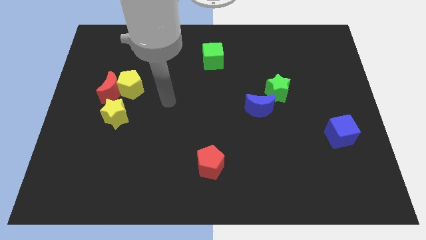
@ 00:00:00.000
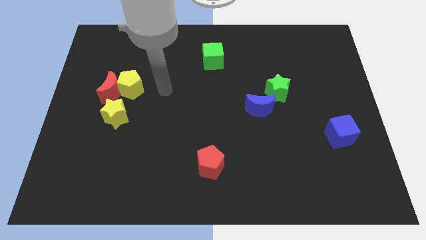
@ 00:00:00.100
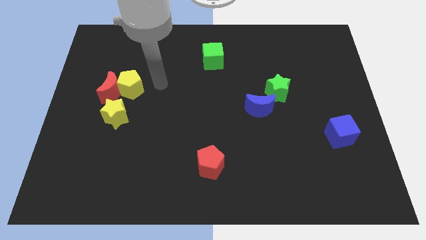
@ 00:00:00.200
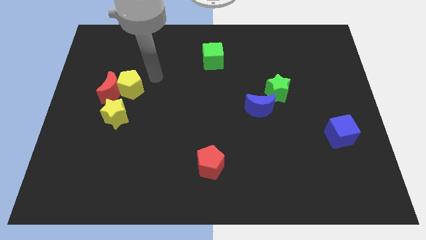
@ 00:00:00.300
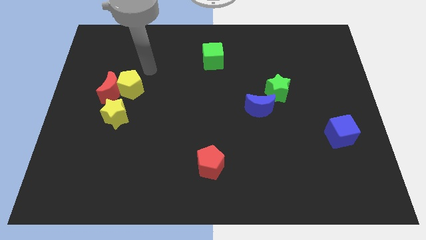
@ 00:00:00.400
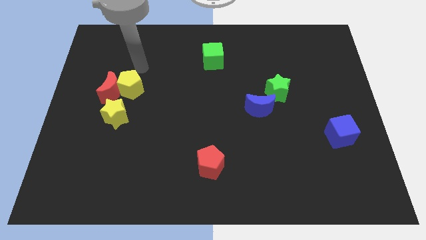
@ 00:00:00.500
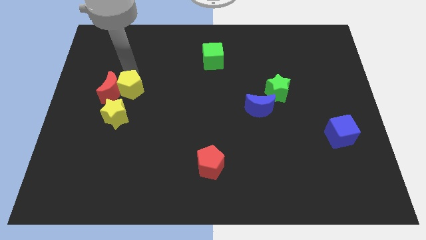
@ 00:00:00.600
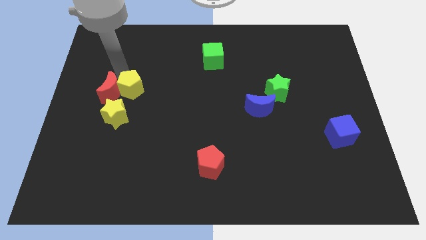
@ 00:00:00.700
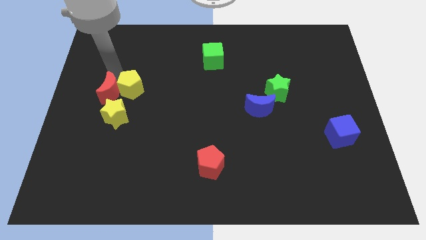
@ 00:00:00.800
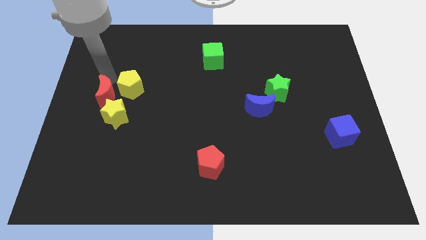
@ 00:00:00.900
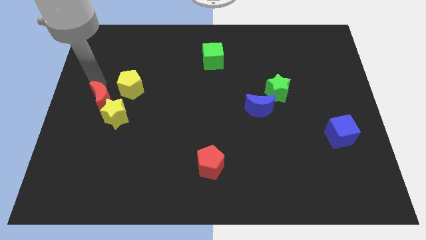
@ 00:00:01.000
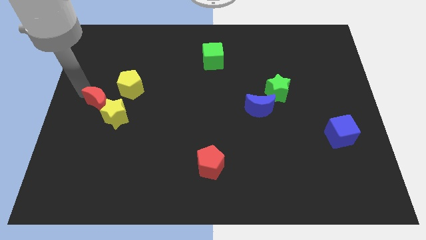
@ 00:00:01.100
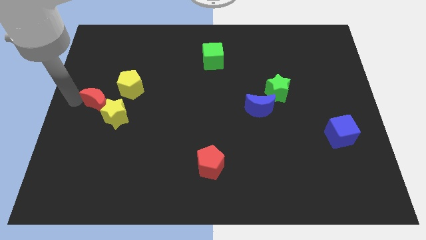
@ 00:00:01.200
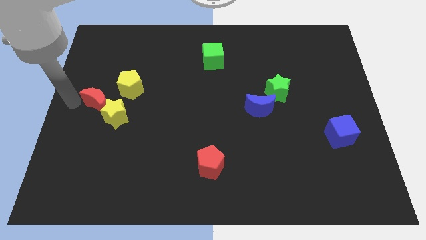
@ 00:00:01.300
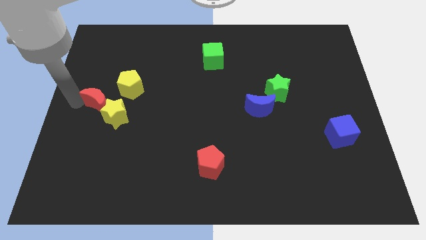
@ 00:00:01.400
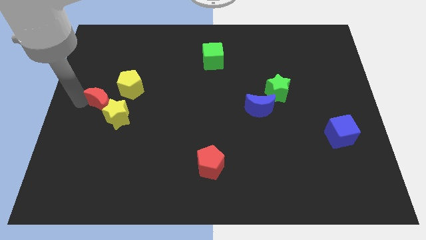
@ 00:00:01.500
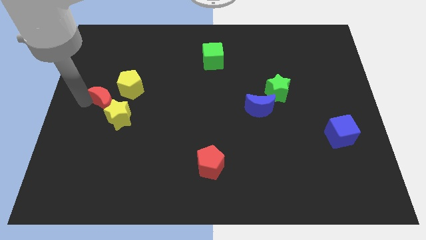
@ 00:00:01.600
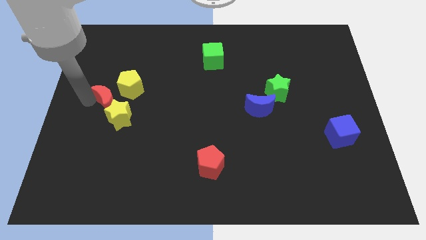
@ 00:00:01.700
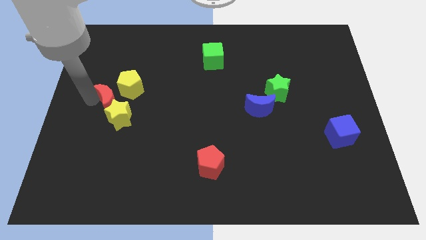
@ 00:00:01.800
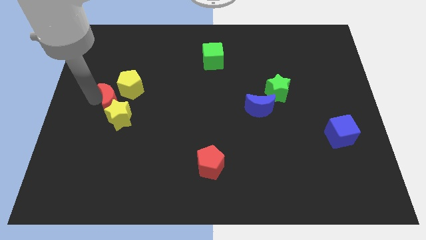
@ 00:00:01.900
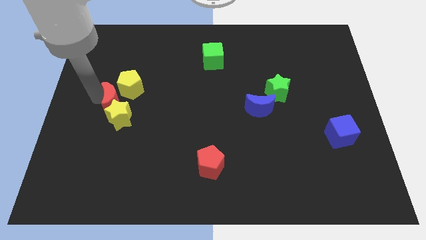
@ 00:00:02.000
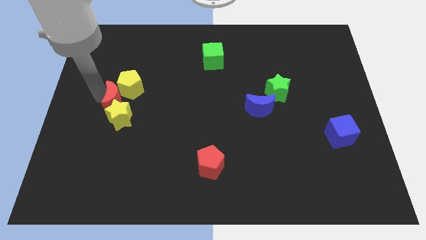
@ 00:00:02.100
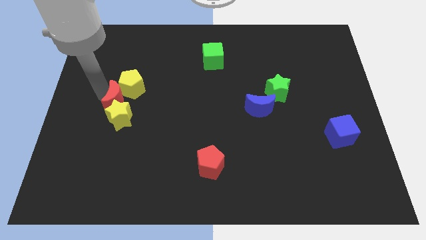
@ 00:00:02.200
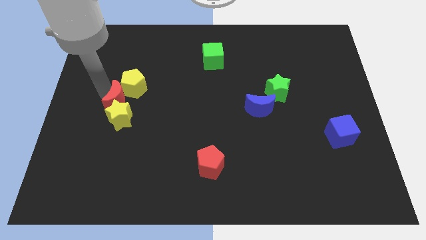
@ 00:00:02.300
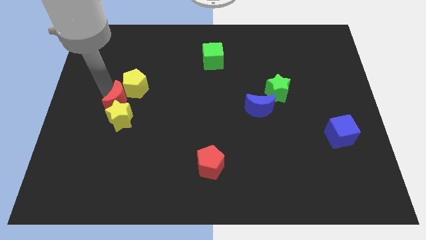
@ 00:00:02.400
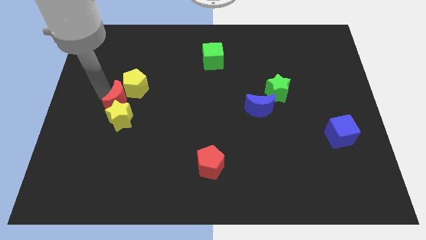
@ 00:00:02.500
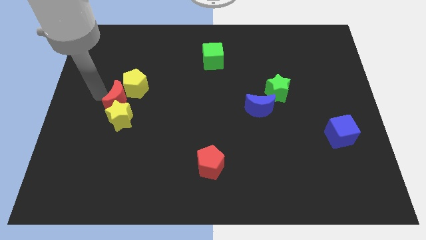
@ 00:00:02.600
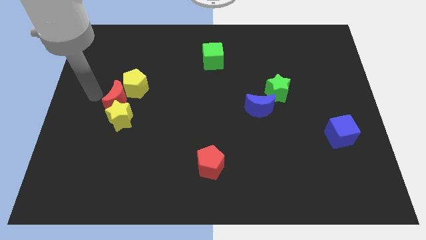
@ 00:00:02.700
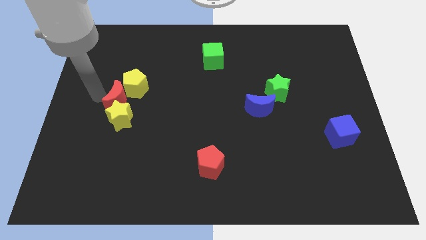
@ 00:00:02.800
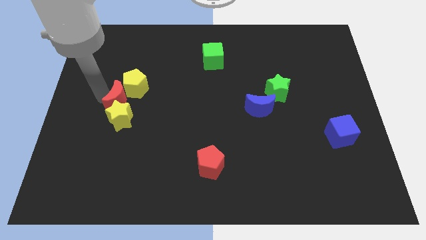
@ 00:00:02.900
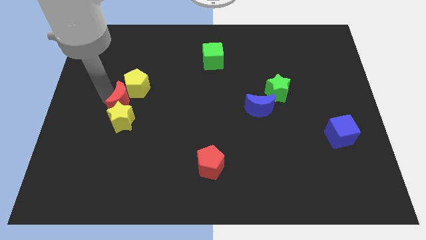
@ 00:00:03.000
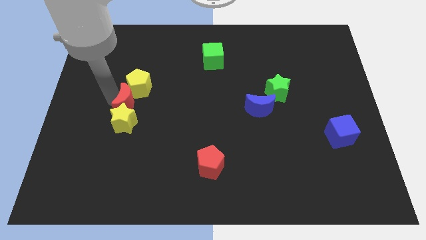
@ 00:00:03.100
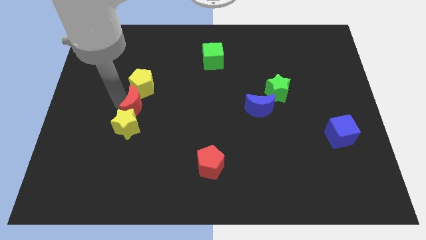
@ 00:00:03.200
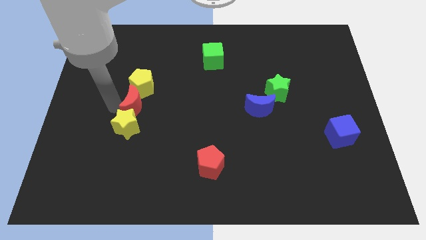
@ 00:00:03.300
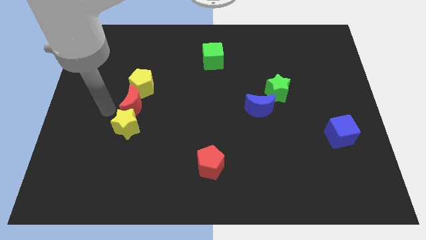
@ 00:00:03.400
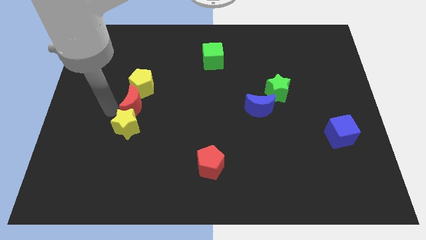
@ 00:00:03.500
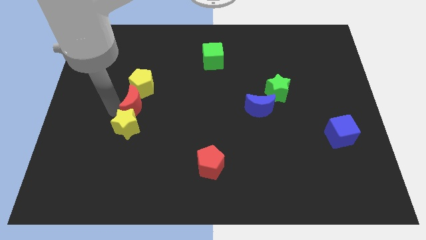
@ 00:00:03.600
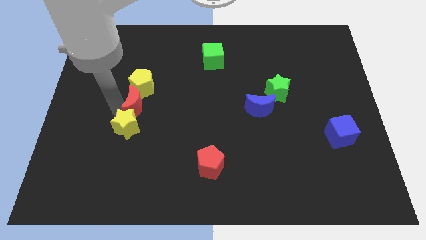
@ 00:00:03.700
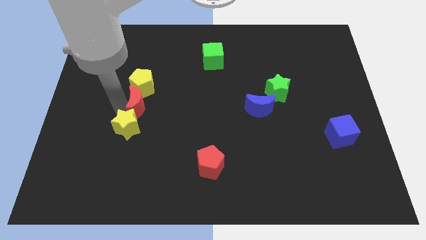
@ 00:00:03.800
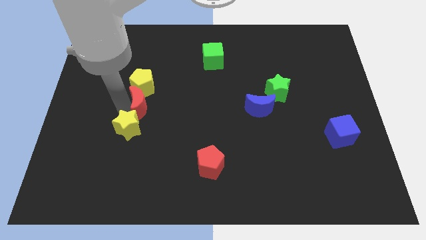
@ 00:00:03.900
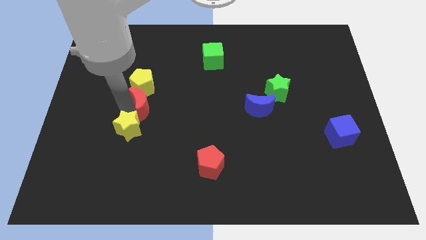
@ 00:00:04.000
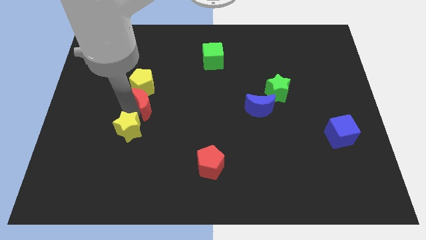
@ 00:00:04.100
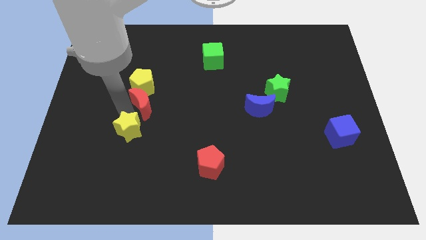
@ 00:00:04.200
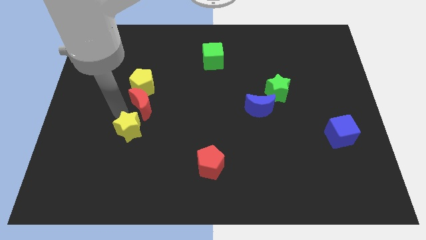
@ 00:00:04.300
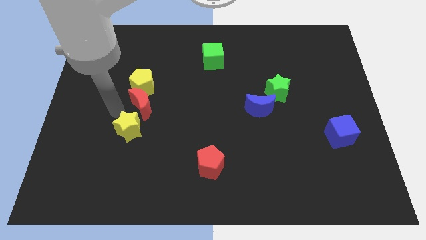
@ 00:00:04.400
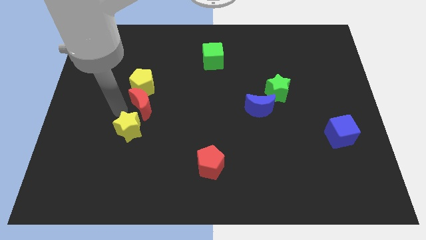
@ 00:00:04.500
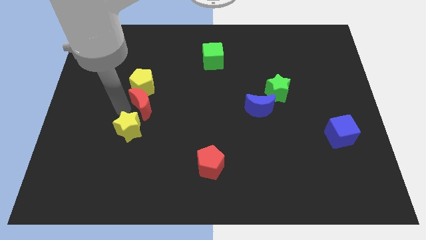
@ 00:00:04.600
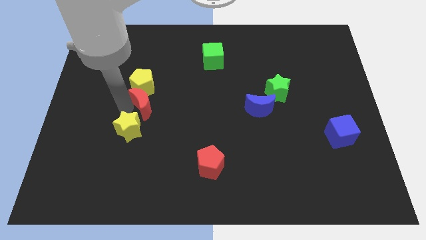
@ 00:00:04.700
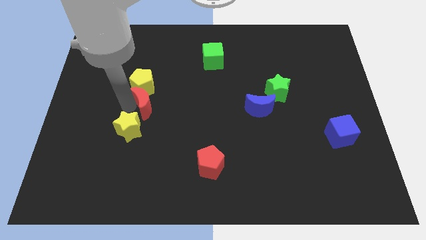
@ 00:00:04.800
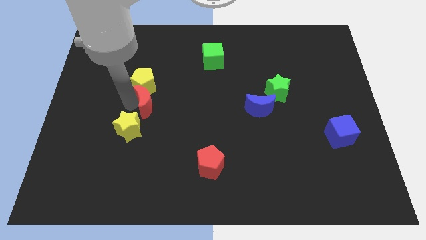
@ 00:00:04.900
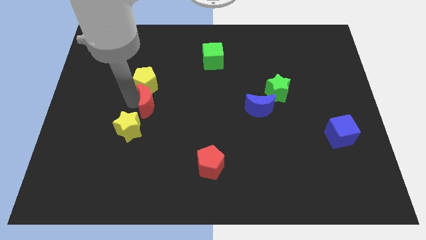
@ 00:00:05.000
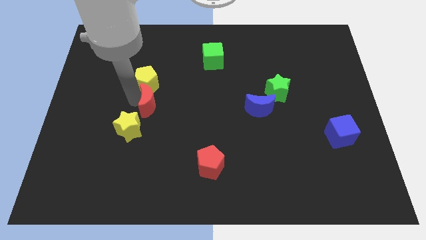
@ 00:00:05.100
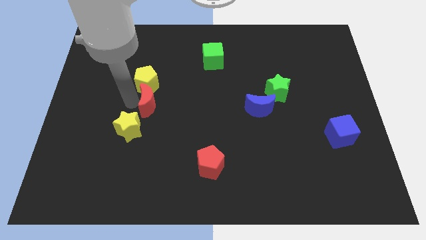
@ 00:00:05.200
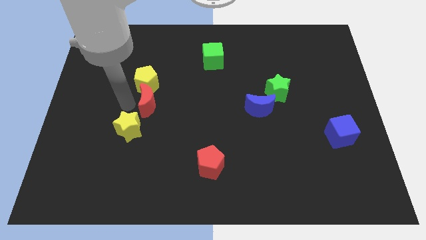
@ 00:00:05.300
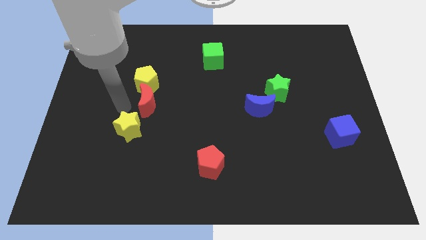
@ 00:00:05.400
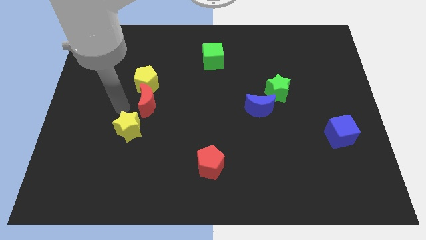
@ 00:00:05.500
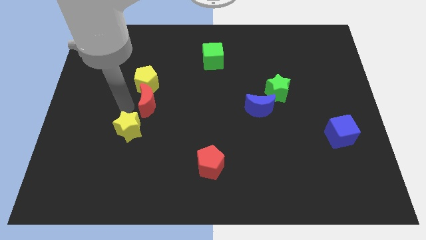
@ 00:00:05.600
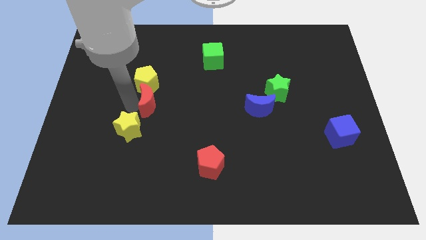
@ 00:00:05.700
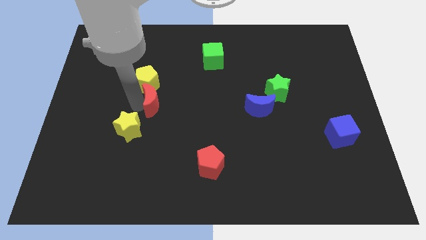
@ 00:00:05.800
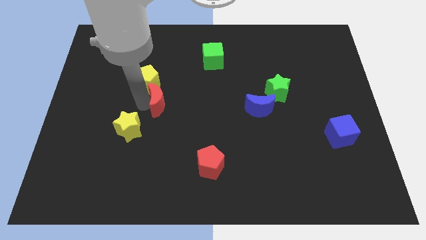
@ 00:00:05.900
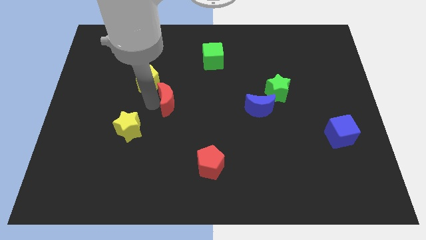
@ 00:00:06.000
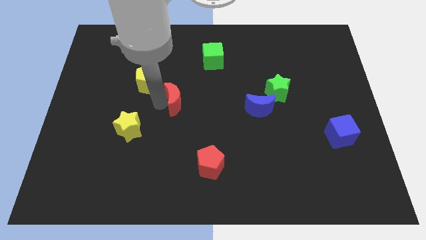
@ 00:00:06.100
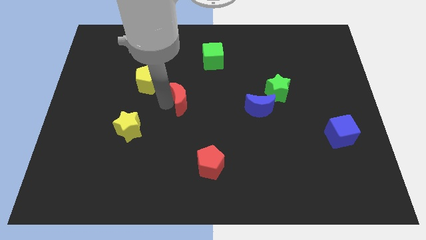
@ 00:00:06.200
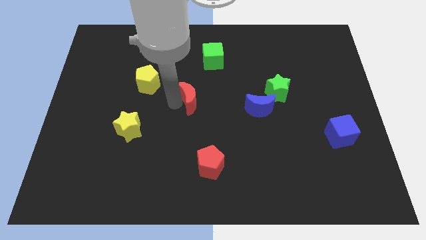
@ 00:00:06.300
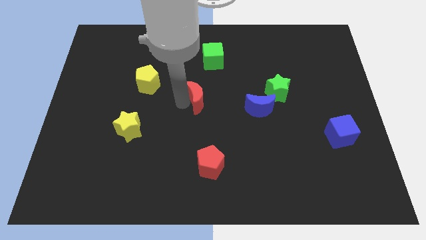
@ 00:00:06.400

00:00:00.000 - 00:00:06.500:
move the red moon to the right

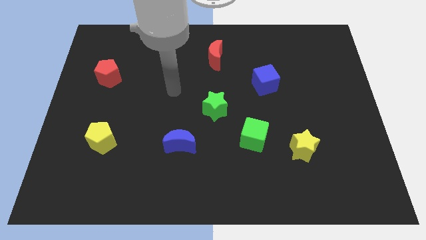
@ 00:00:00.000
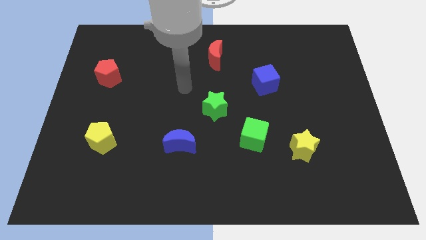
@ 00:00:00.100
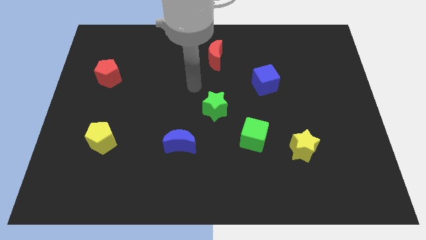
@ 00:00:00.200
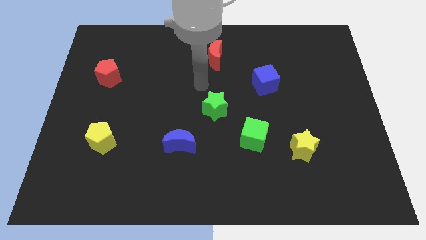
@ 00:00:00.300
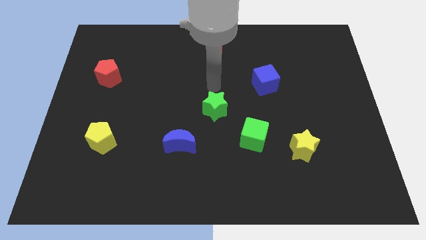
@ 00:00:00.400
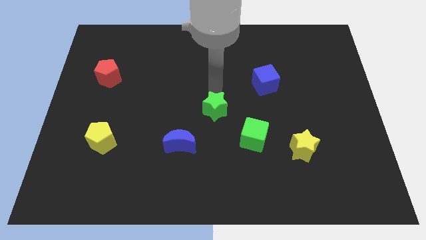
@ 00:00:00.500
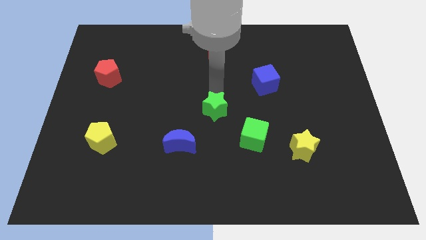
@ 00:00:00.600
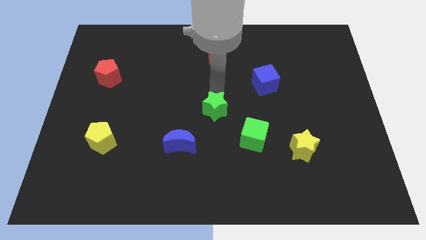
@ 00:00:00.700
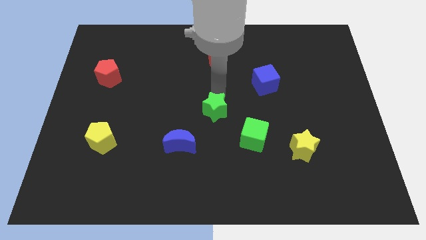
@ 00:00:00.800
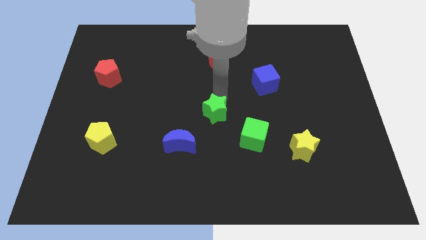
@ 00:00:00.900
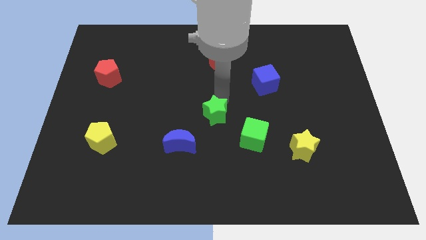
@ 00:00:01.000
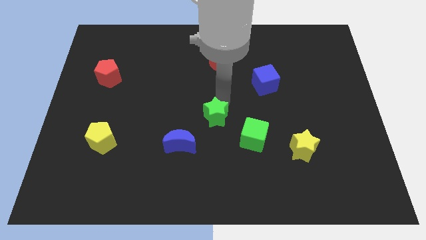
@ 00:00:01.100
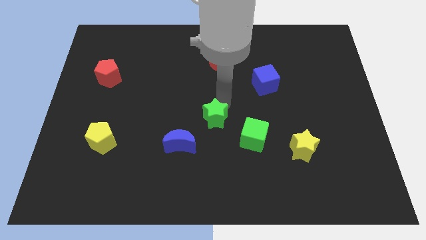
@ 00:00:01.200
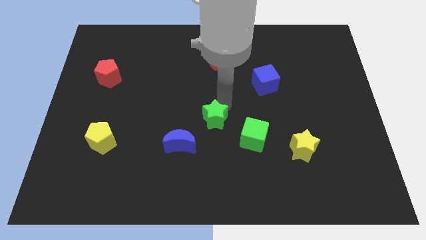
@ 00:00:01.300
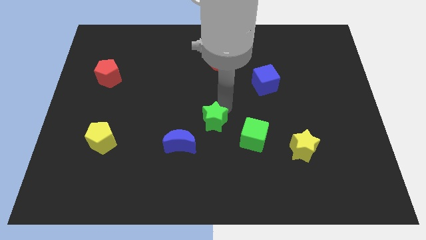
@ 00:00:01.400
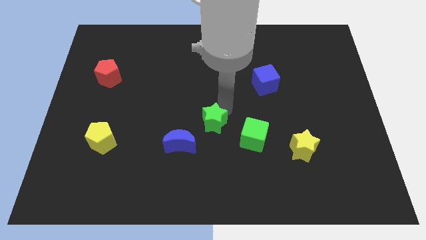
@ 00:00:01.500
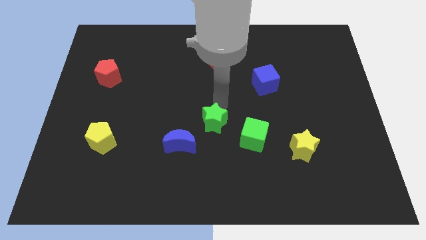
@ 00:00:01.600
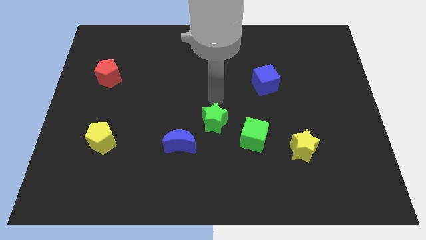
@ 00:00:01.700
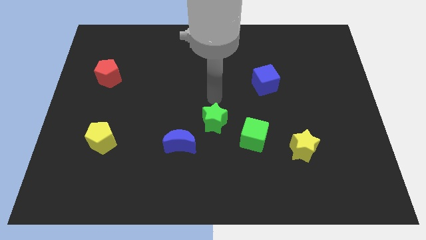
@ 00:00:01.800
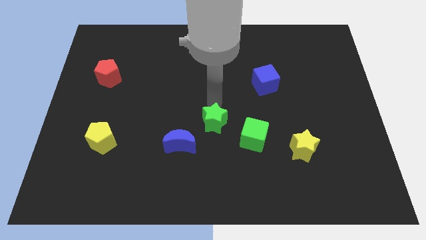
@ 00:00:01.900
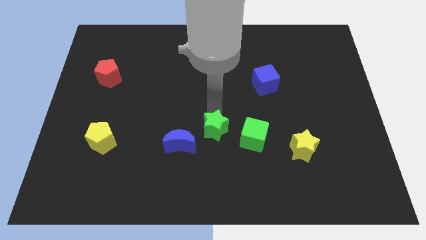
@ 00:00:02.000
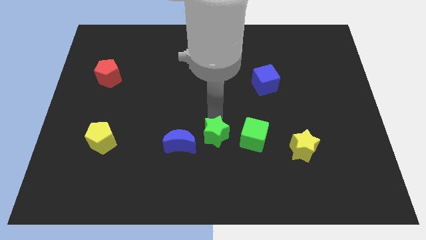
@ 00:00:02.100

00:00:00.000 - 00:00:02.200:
slide the green star a bit down
